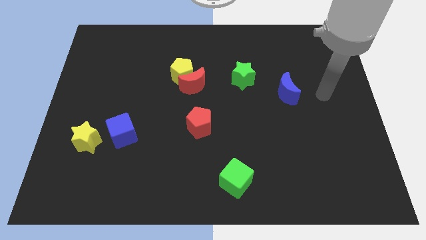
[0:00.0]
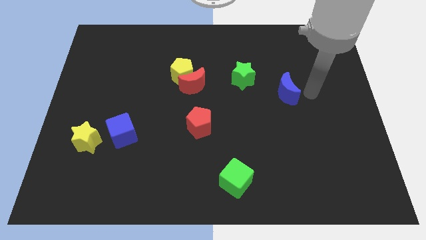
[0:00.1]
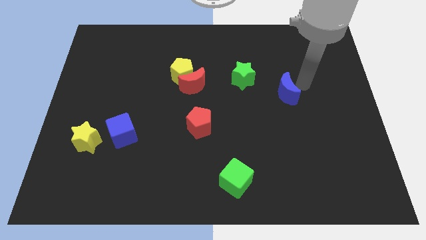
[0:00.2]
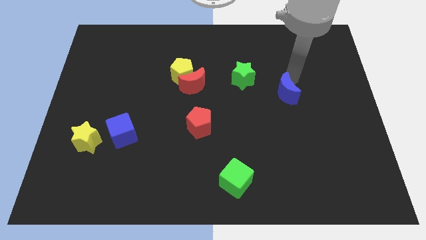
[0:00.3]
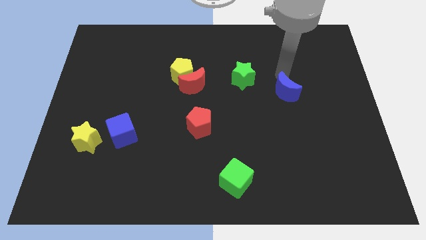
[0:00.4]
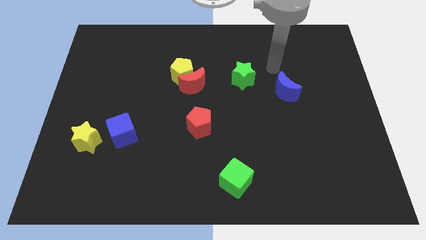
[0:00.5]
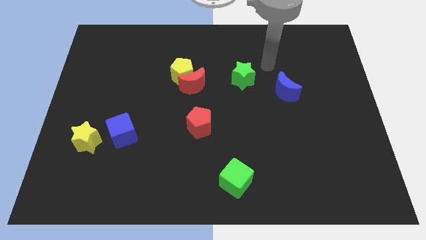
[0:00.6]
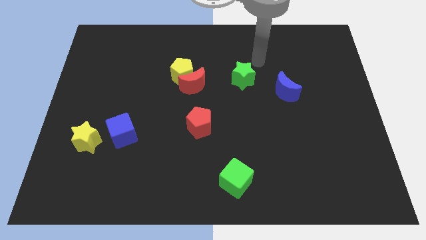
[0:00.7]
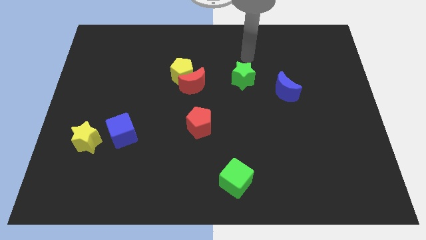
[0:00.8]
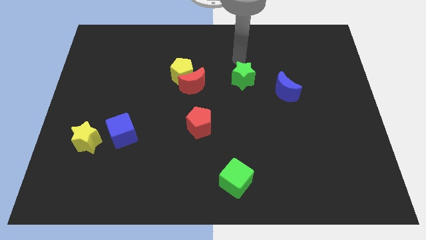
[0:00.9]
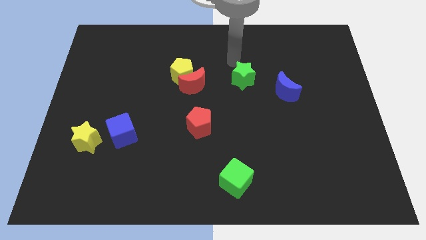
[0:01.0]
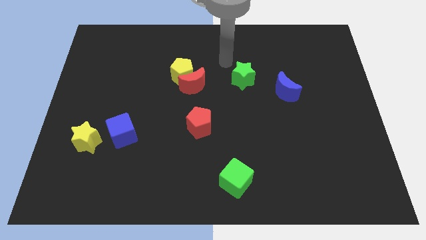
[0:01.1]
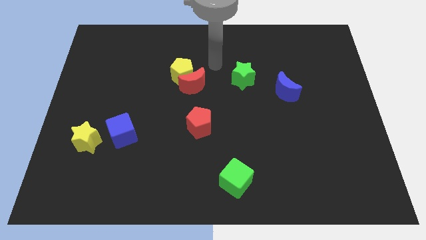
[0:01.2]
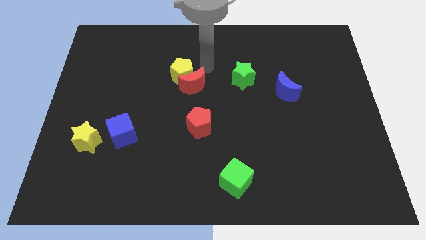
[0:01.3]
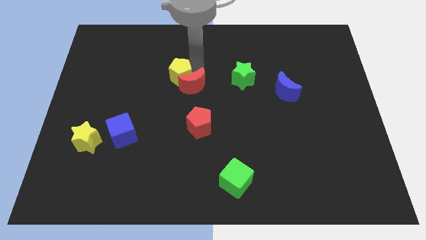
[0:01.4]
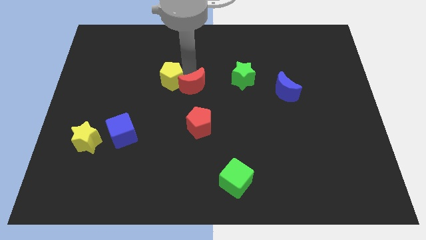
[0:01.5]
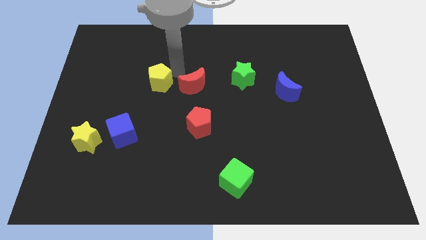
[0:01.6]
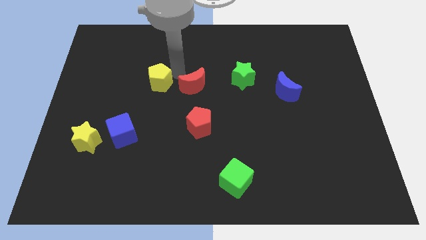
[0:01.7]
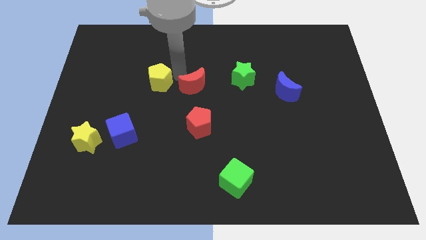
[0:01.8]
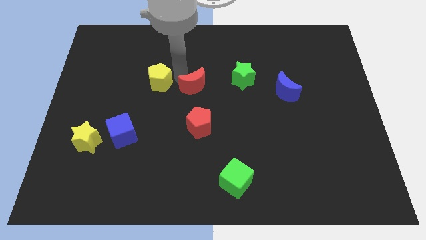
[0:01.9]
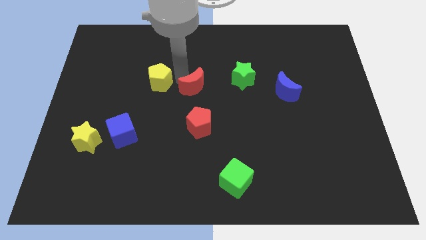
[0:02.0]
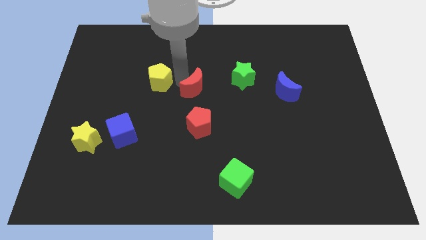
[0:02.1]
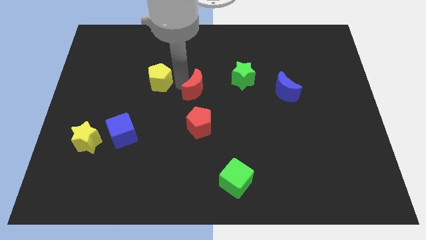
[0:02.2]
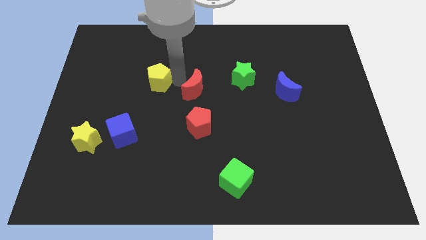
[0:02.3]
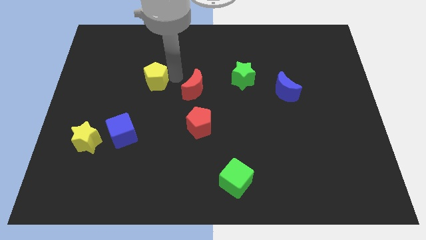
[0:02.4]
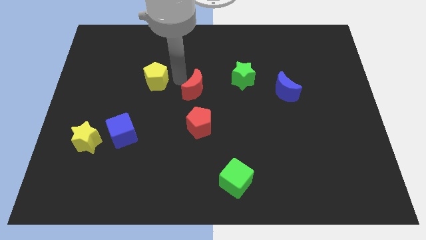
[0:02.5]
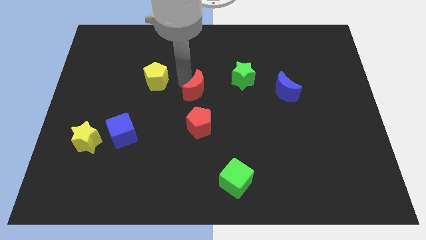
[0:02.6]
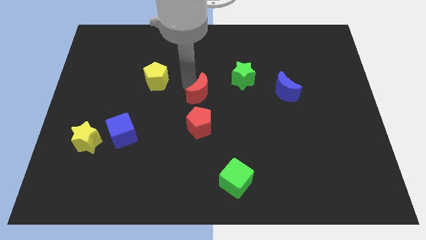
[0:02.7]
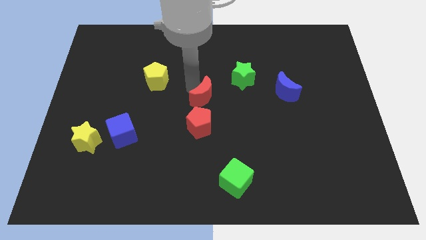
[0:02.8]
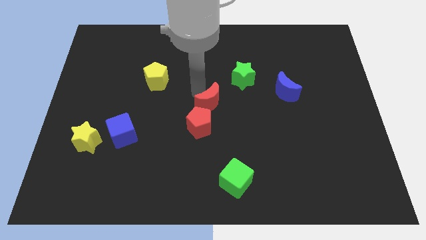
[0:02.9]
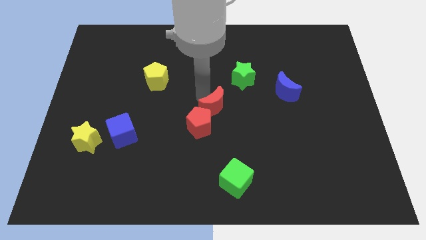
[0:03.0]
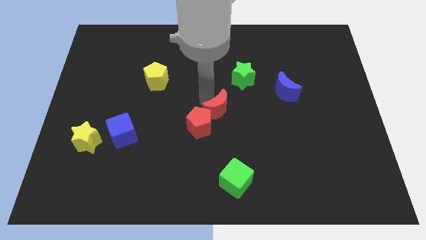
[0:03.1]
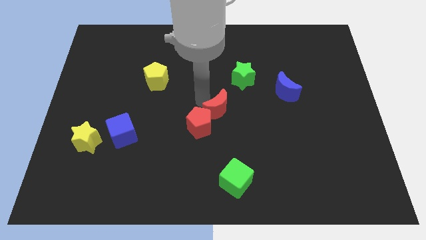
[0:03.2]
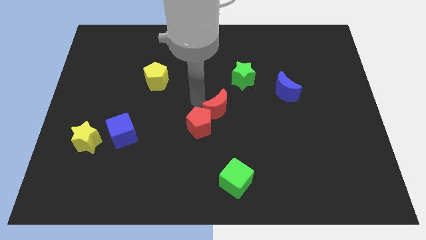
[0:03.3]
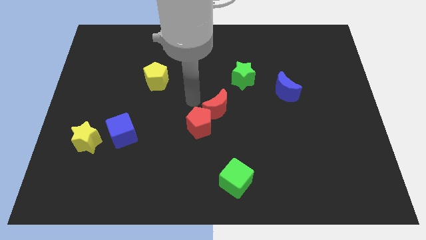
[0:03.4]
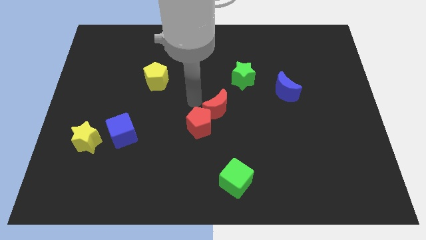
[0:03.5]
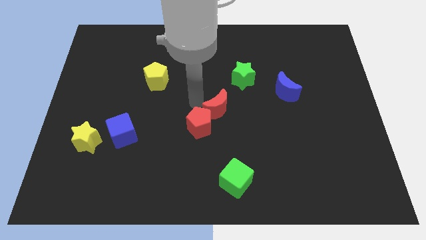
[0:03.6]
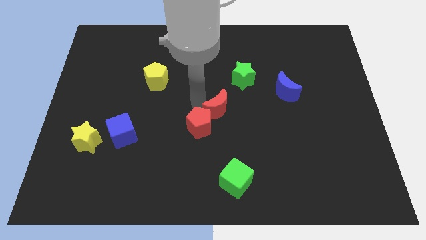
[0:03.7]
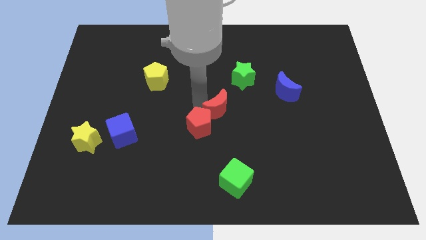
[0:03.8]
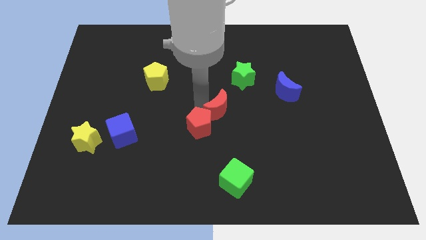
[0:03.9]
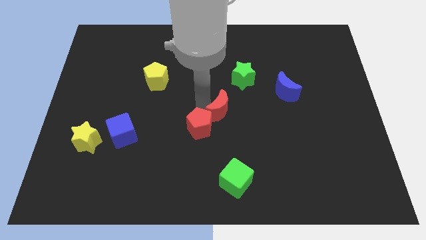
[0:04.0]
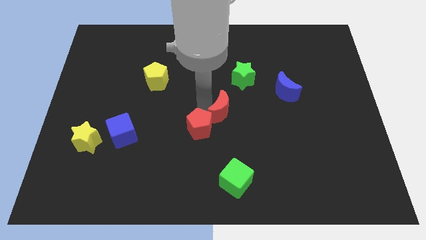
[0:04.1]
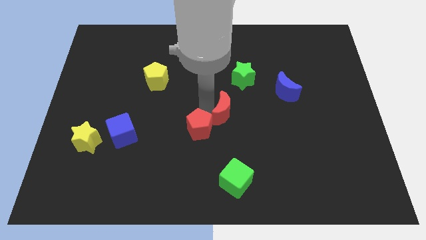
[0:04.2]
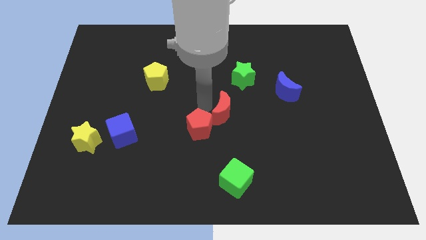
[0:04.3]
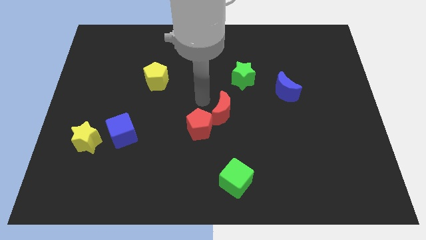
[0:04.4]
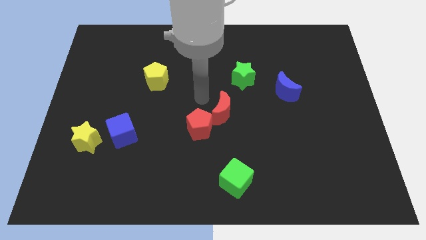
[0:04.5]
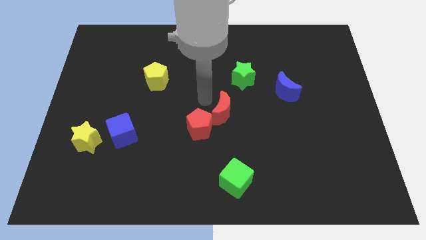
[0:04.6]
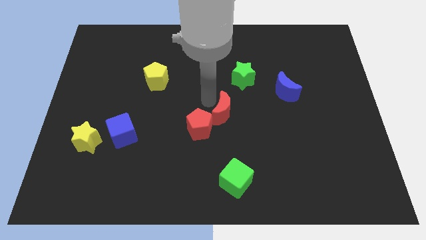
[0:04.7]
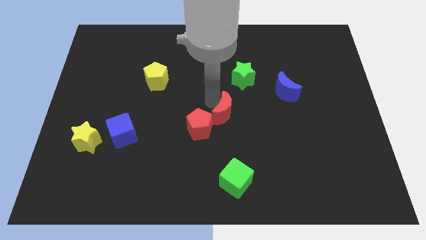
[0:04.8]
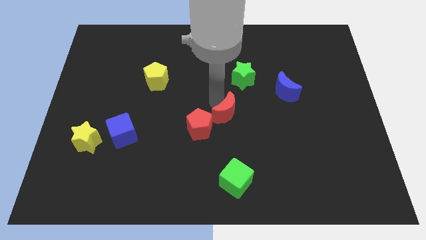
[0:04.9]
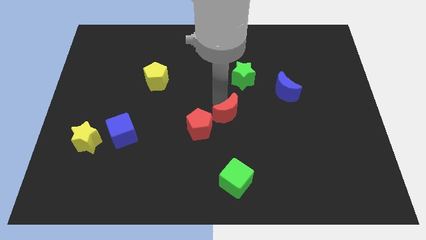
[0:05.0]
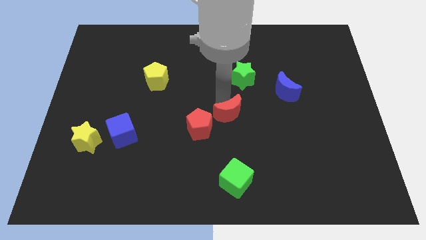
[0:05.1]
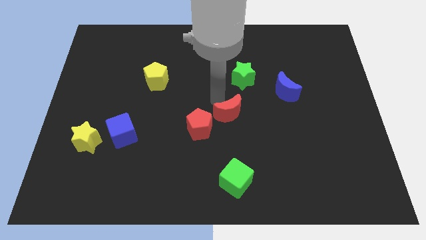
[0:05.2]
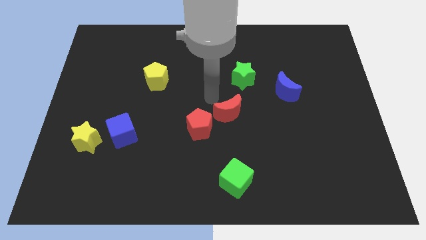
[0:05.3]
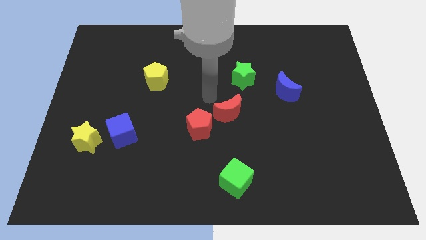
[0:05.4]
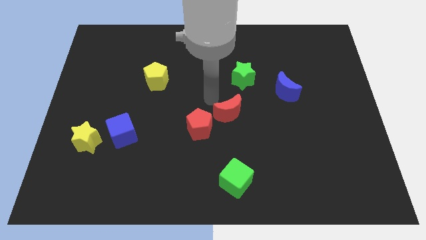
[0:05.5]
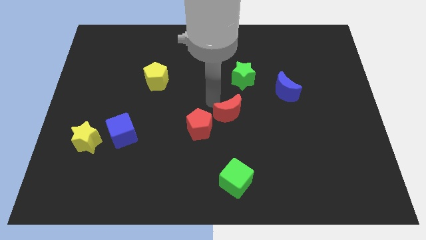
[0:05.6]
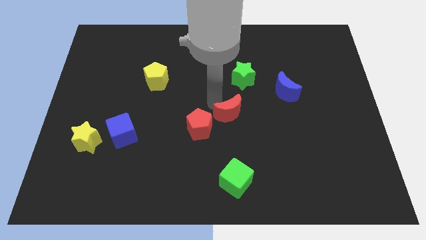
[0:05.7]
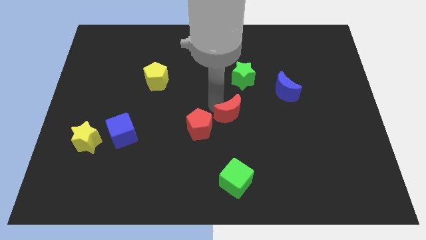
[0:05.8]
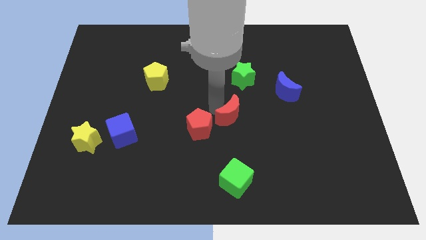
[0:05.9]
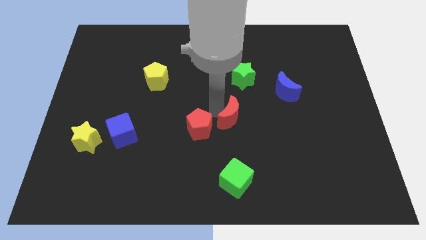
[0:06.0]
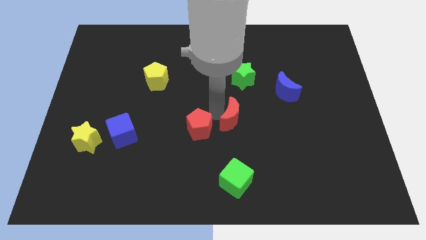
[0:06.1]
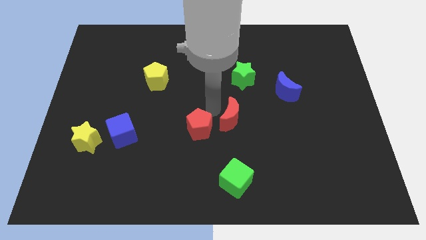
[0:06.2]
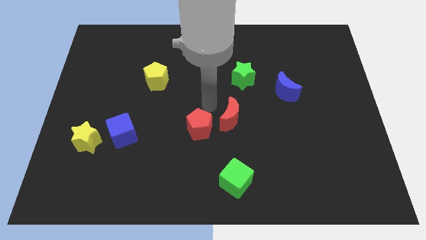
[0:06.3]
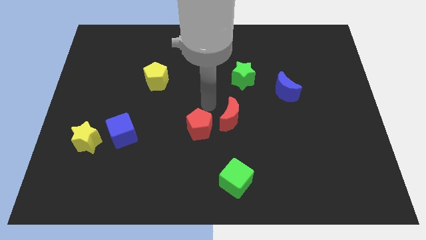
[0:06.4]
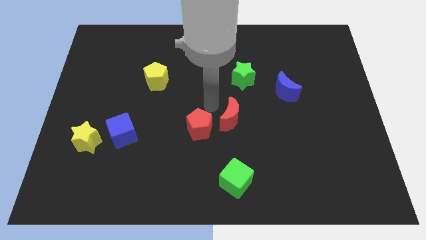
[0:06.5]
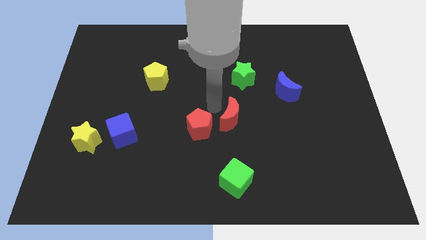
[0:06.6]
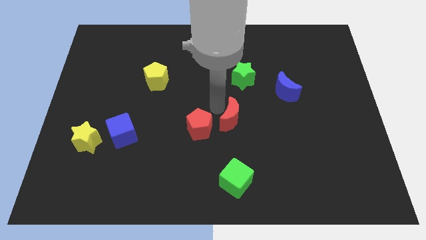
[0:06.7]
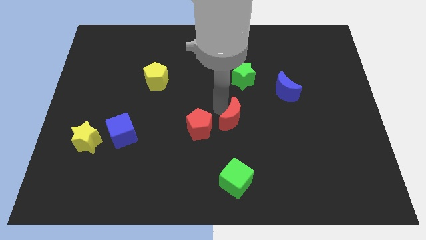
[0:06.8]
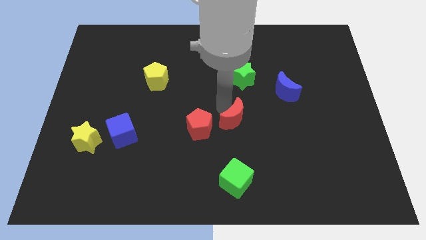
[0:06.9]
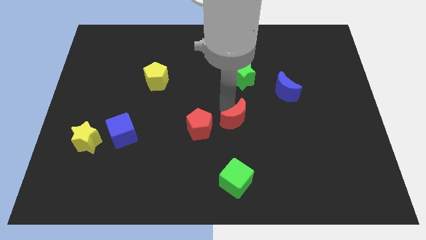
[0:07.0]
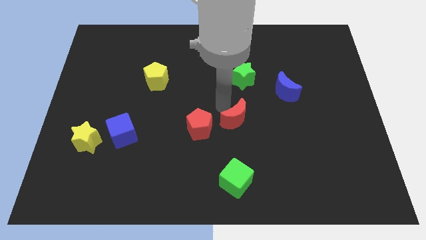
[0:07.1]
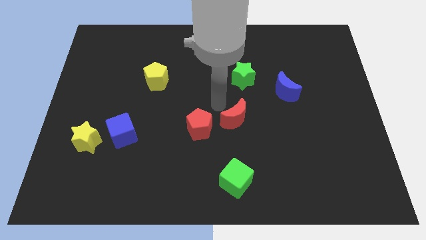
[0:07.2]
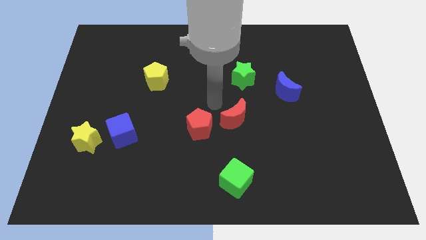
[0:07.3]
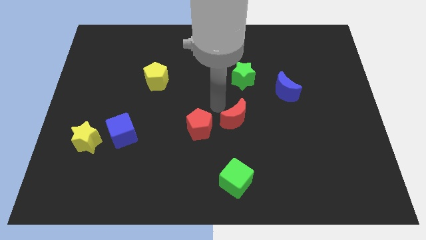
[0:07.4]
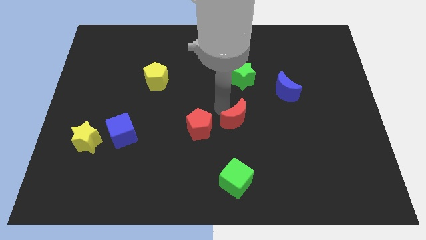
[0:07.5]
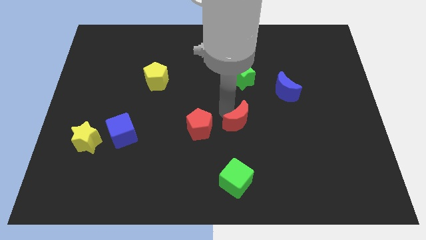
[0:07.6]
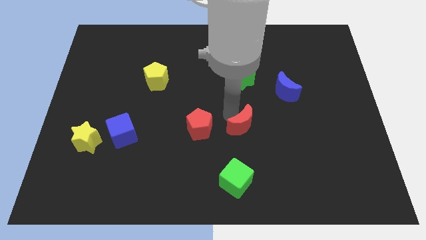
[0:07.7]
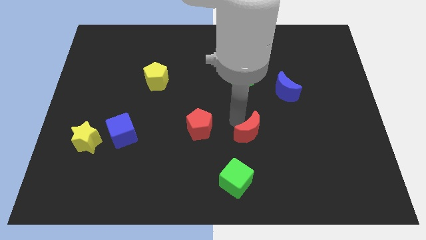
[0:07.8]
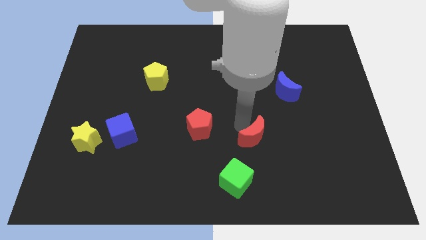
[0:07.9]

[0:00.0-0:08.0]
move the red moon downwards and to the right diagonally

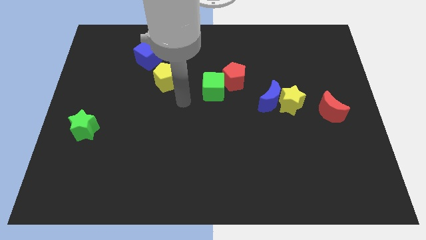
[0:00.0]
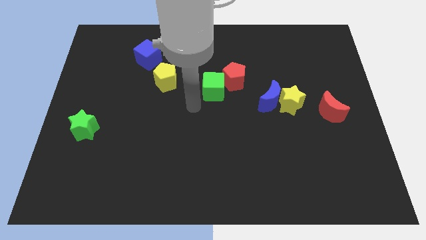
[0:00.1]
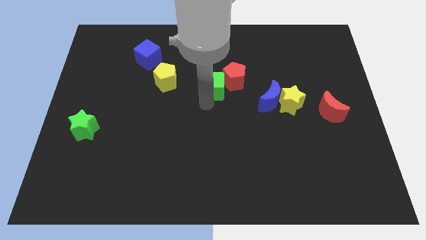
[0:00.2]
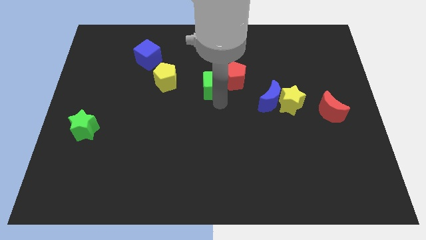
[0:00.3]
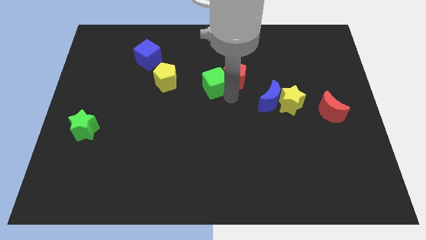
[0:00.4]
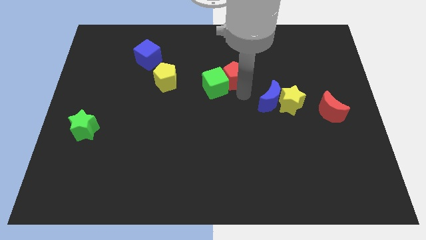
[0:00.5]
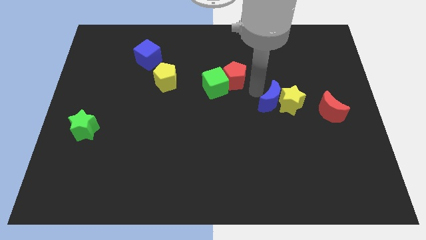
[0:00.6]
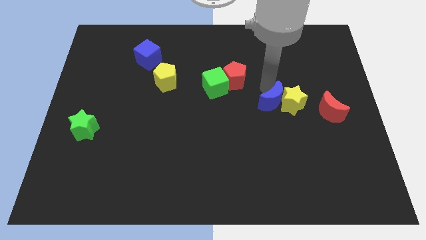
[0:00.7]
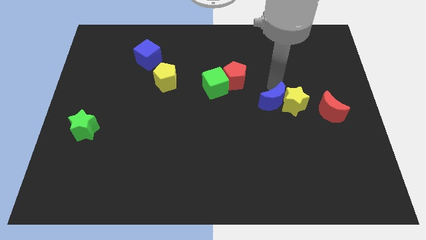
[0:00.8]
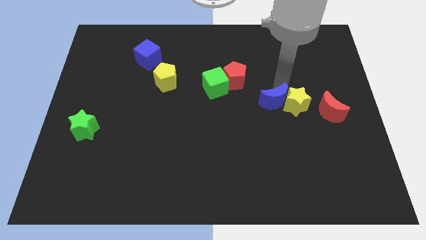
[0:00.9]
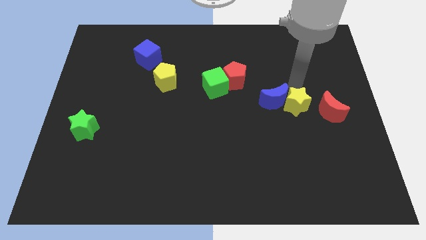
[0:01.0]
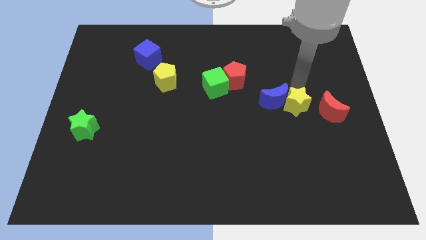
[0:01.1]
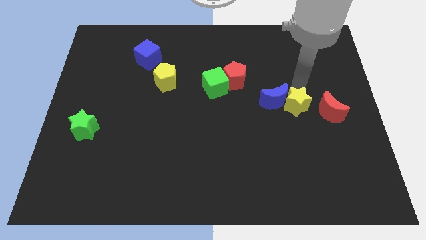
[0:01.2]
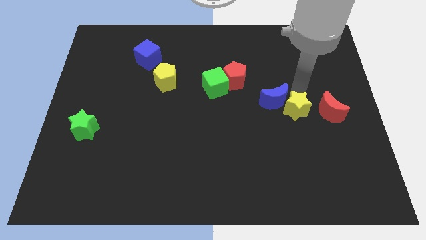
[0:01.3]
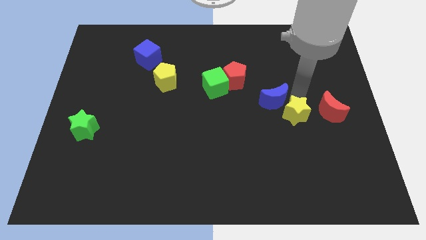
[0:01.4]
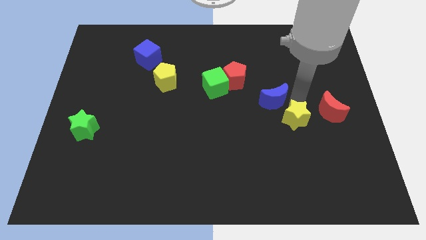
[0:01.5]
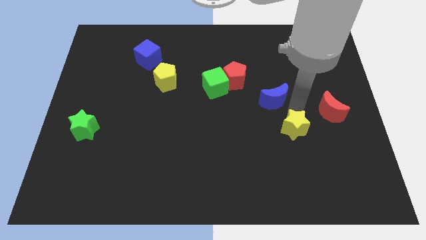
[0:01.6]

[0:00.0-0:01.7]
push the yellow star slightly downwards
